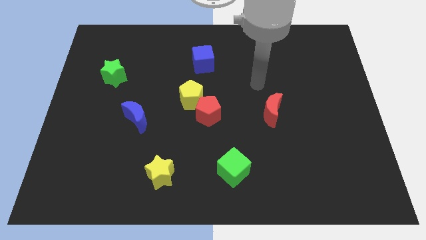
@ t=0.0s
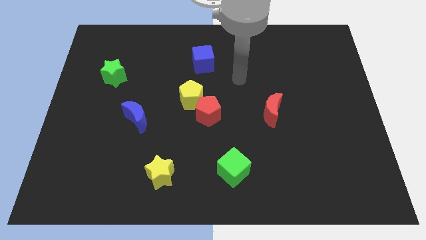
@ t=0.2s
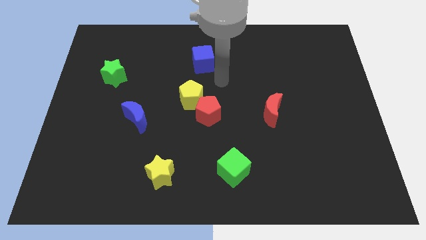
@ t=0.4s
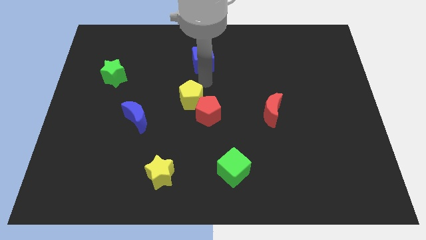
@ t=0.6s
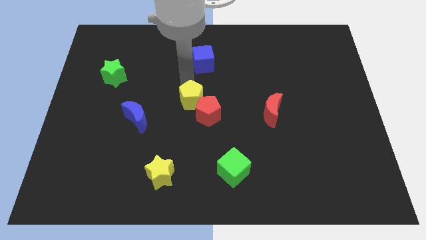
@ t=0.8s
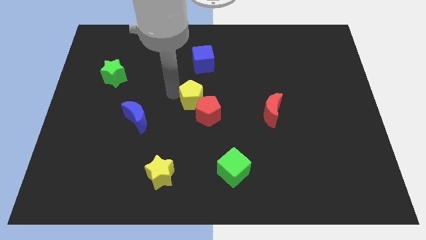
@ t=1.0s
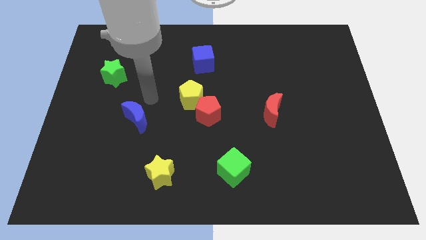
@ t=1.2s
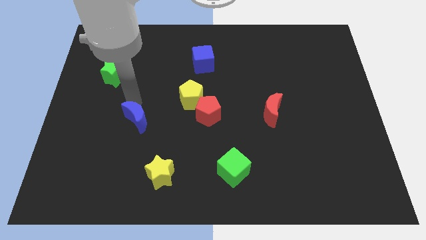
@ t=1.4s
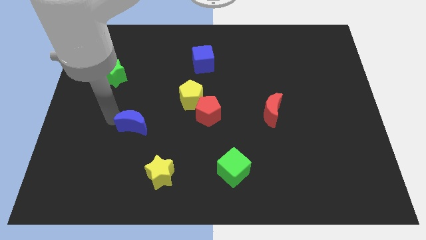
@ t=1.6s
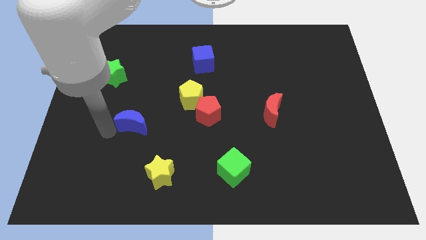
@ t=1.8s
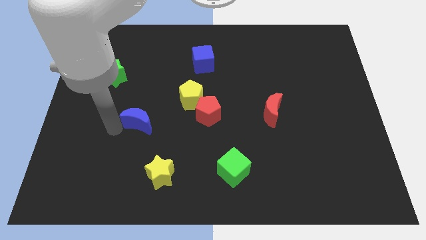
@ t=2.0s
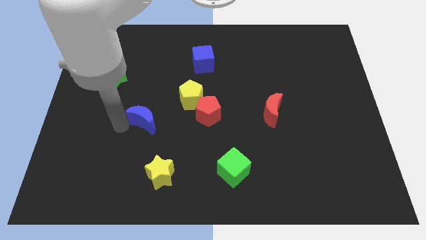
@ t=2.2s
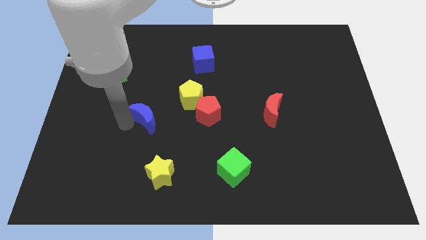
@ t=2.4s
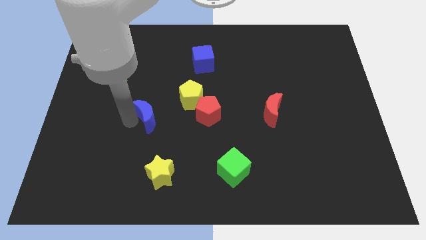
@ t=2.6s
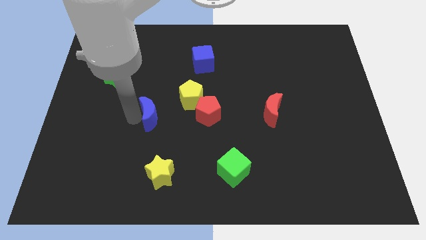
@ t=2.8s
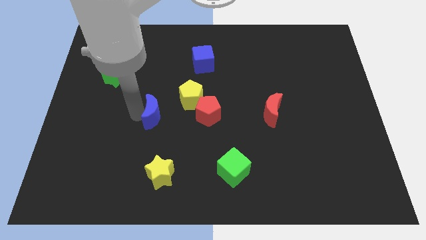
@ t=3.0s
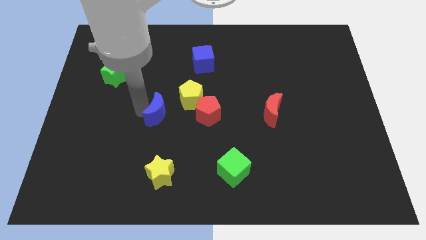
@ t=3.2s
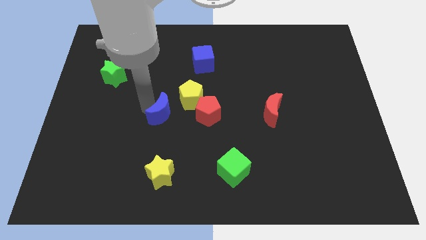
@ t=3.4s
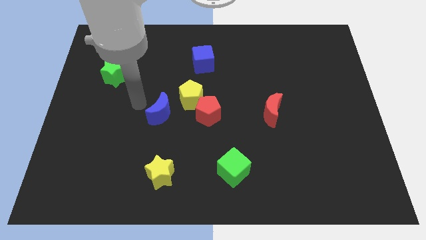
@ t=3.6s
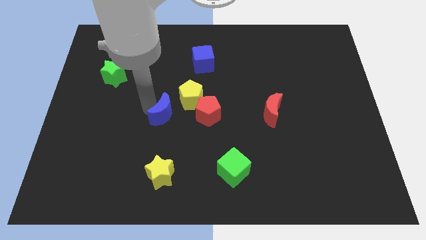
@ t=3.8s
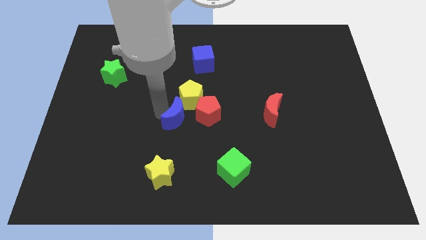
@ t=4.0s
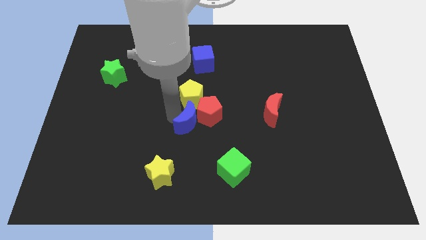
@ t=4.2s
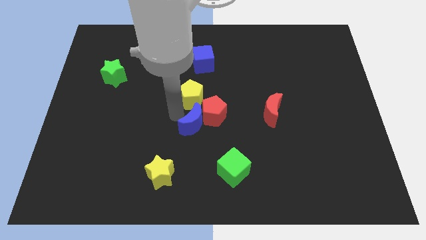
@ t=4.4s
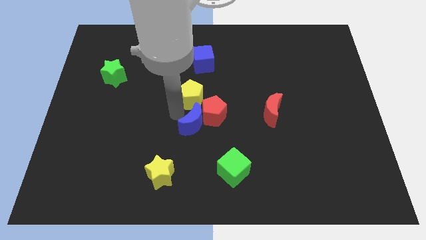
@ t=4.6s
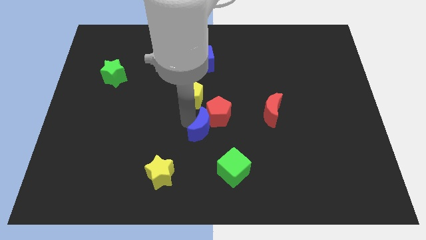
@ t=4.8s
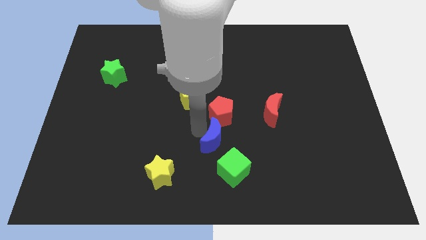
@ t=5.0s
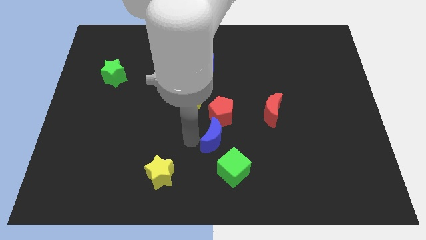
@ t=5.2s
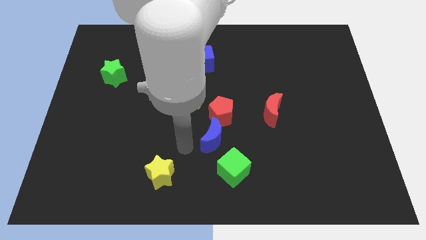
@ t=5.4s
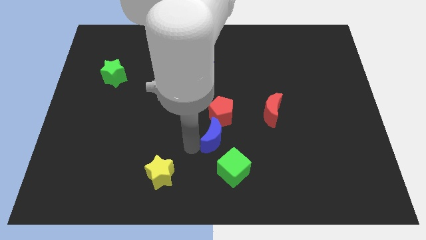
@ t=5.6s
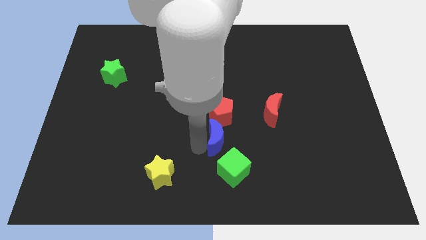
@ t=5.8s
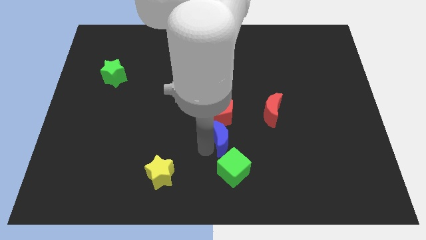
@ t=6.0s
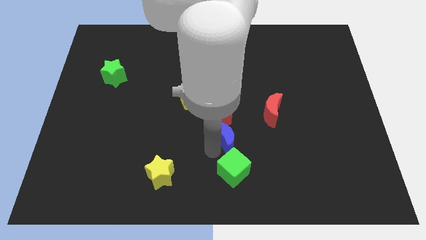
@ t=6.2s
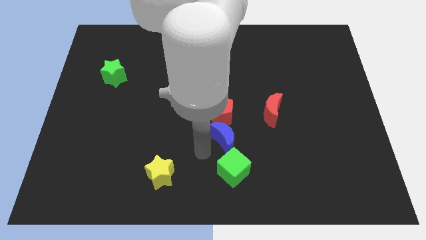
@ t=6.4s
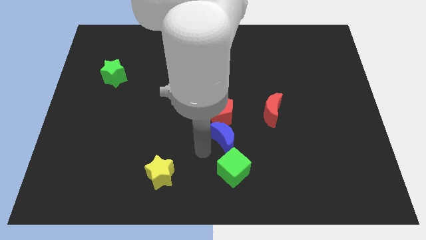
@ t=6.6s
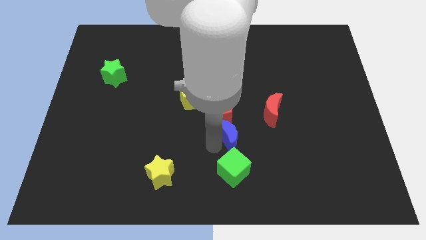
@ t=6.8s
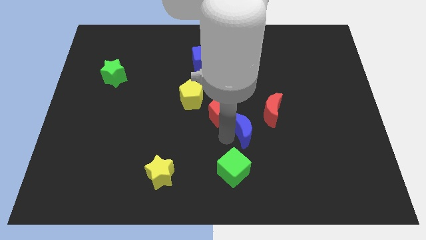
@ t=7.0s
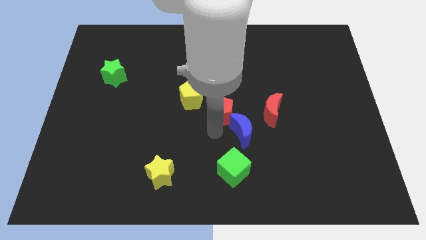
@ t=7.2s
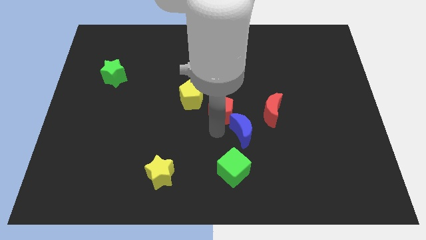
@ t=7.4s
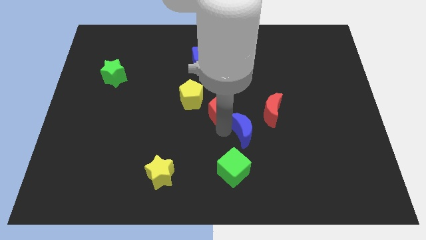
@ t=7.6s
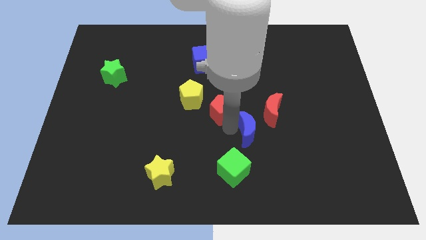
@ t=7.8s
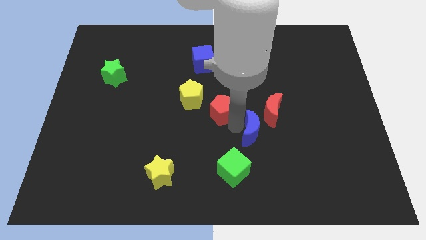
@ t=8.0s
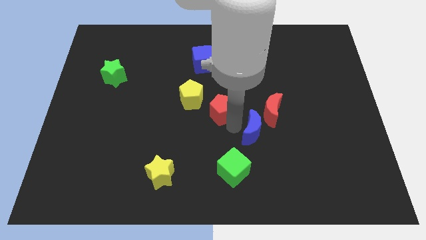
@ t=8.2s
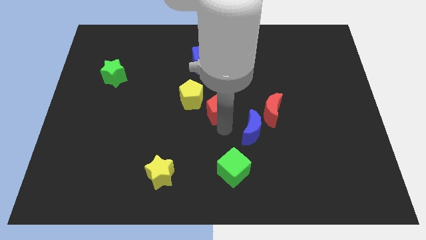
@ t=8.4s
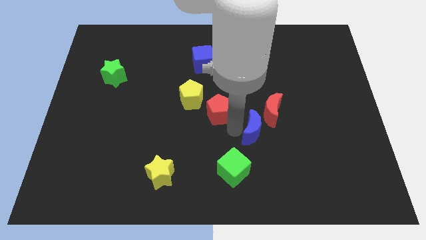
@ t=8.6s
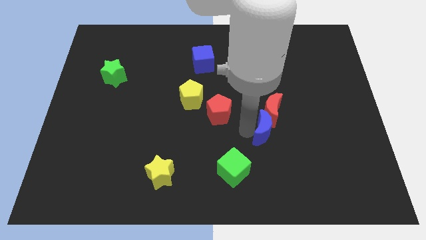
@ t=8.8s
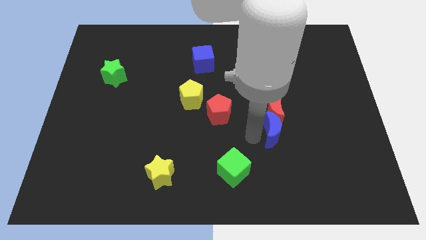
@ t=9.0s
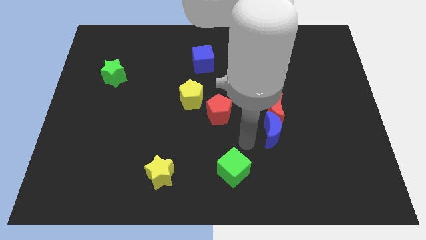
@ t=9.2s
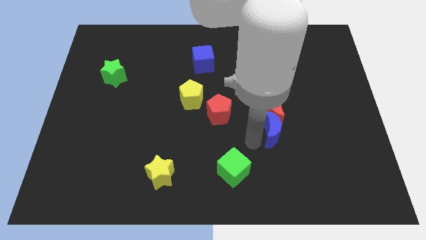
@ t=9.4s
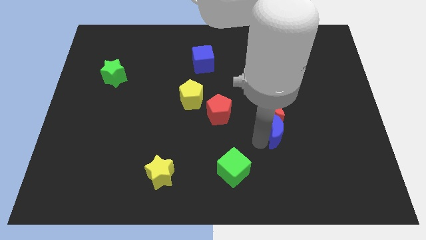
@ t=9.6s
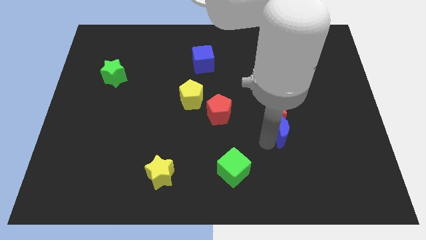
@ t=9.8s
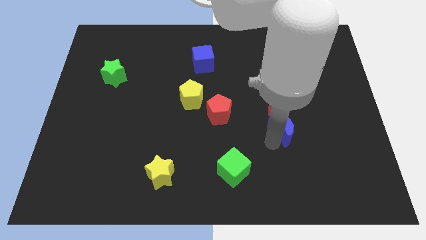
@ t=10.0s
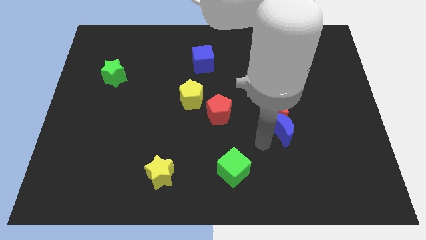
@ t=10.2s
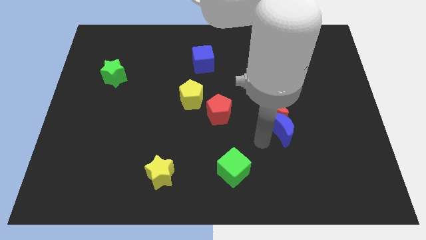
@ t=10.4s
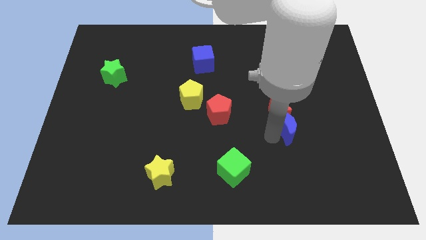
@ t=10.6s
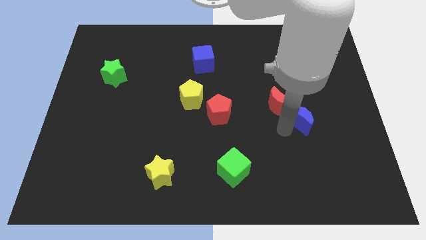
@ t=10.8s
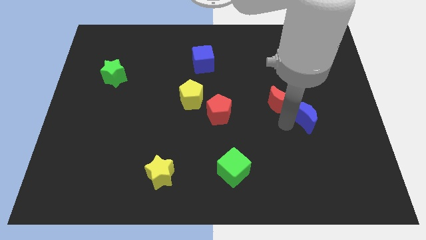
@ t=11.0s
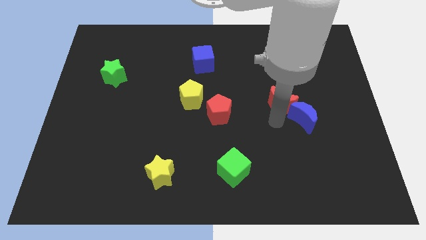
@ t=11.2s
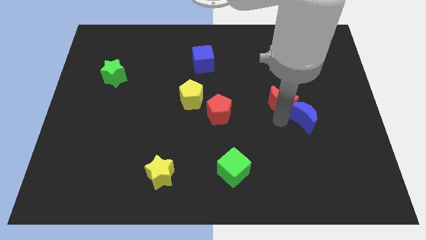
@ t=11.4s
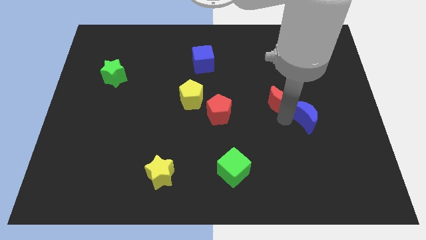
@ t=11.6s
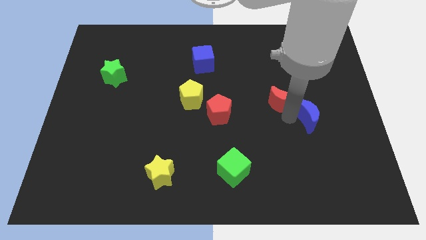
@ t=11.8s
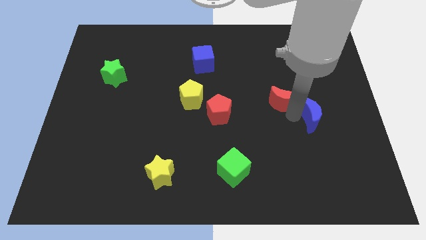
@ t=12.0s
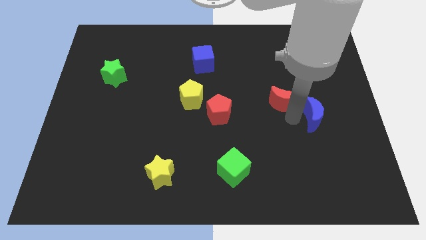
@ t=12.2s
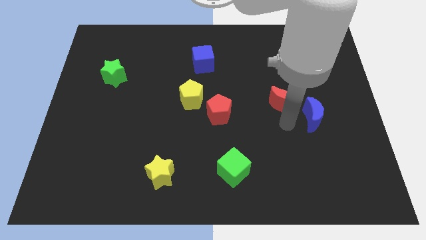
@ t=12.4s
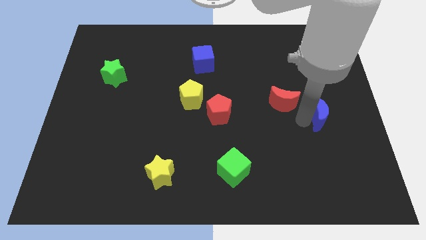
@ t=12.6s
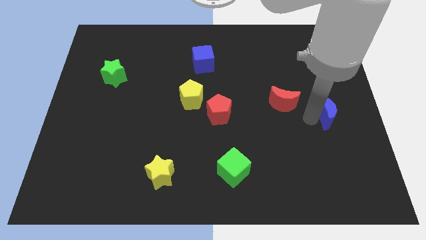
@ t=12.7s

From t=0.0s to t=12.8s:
move the blue moon to the center right
